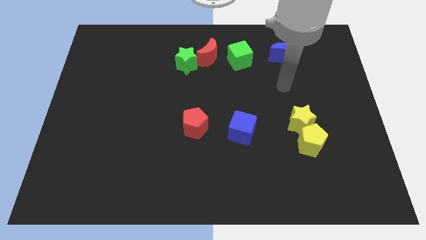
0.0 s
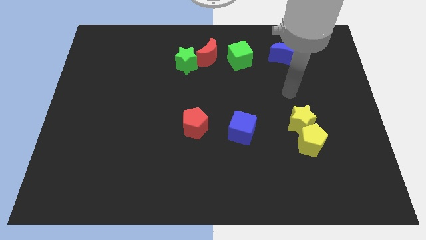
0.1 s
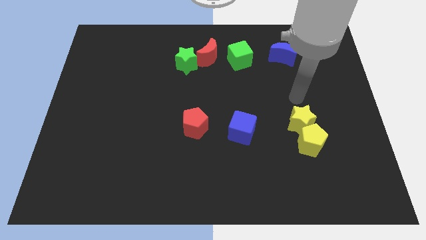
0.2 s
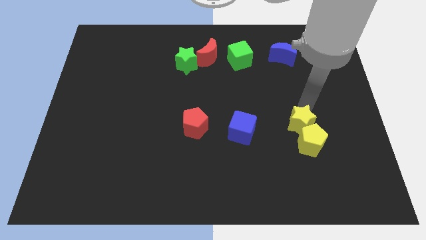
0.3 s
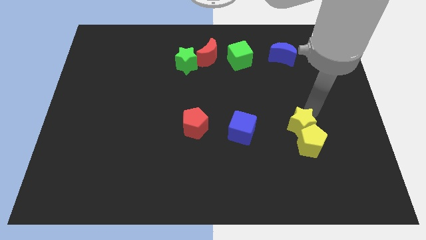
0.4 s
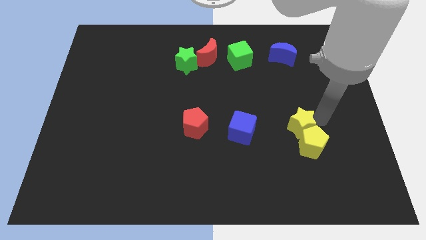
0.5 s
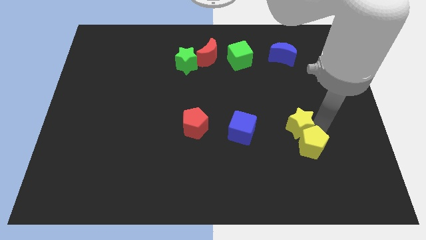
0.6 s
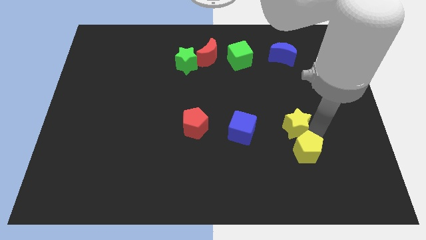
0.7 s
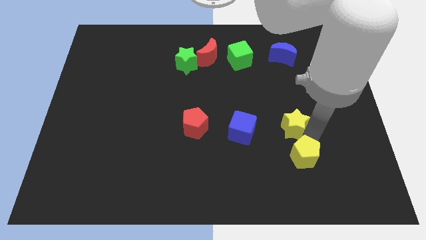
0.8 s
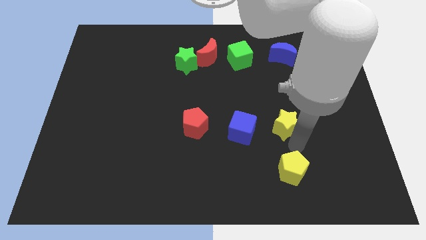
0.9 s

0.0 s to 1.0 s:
separate the yellow star from the yellow pentagon

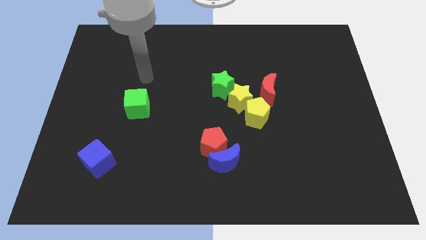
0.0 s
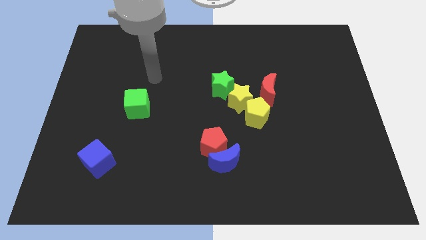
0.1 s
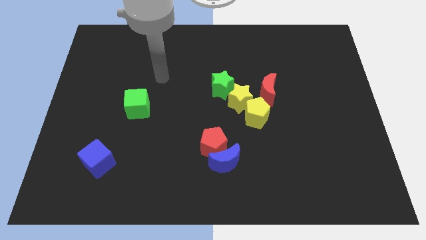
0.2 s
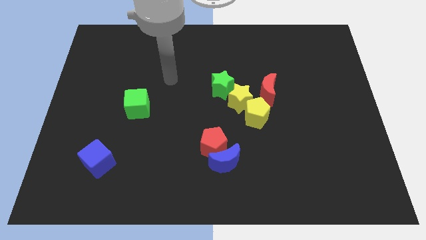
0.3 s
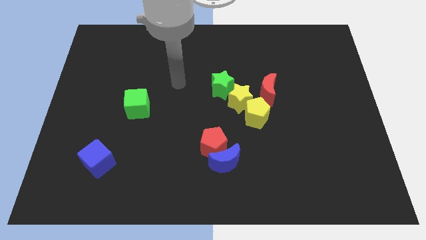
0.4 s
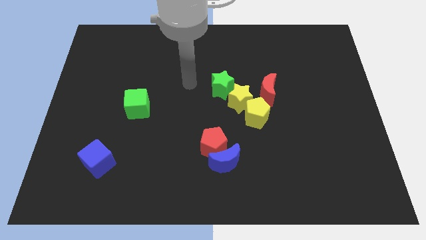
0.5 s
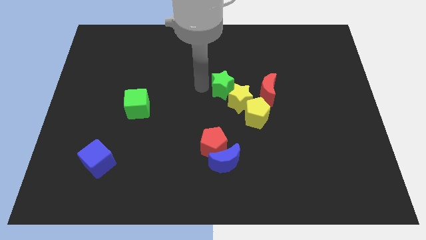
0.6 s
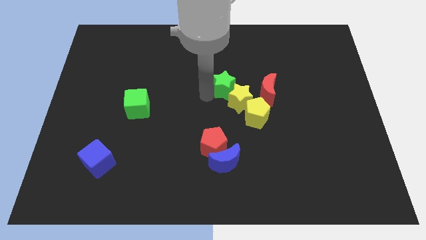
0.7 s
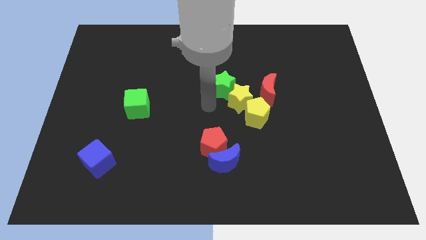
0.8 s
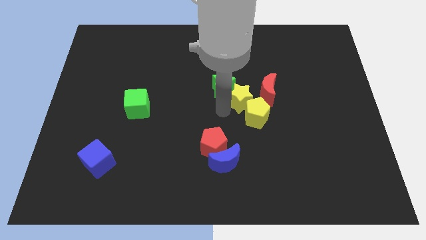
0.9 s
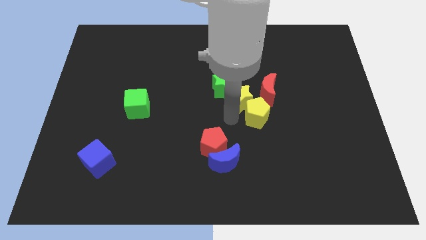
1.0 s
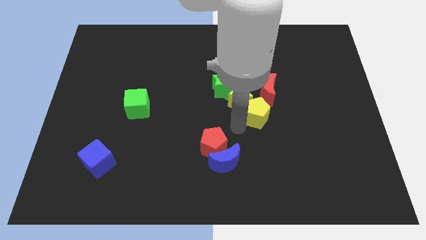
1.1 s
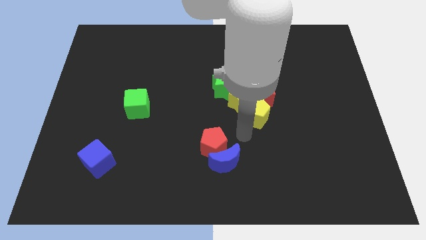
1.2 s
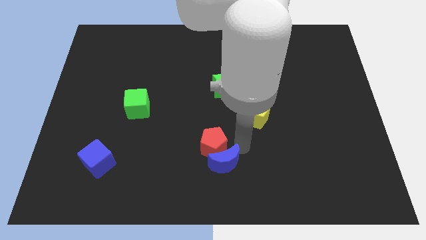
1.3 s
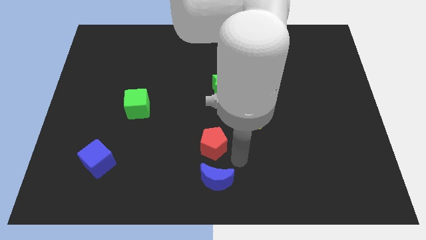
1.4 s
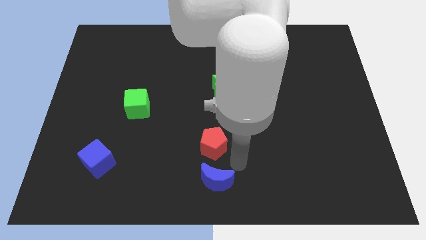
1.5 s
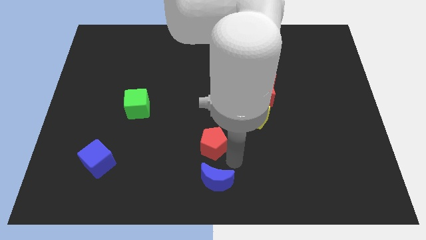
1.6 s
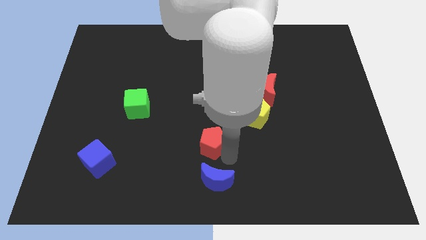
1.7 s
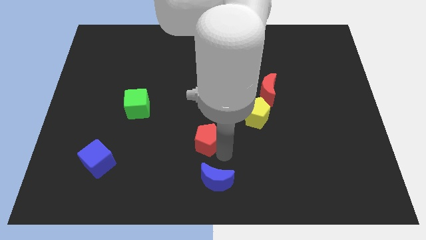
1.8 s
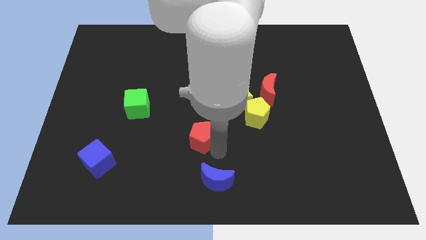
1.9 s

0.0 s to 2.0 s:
pull the red pentagon apart from the blue moon

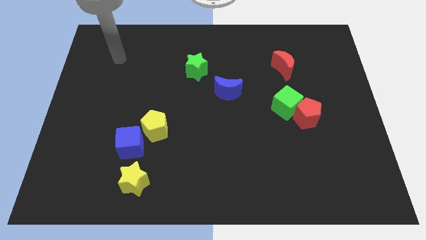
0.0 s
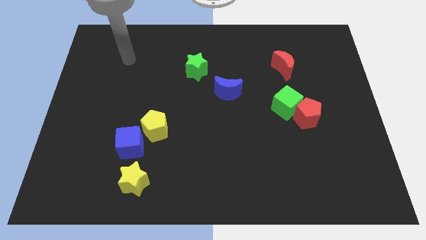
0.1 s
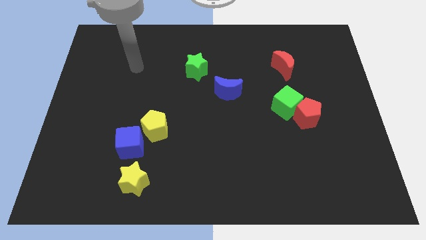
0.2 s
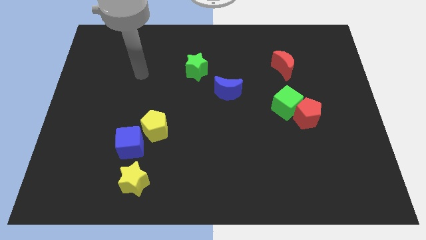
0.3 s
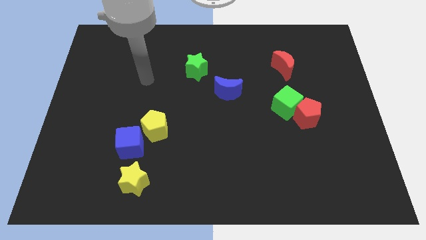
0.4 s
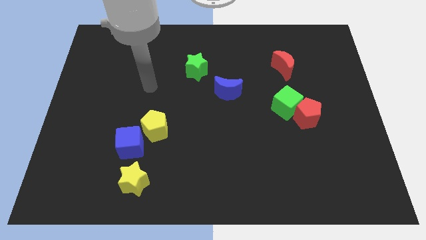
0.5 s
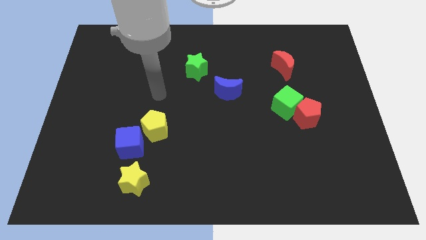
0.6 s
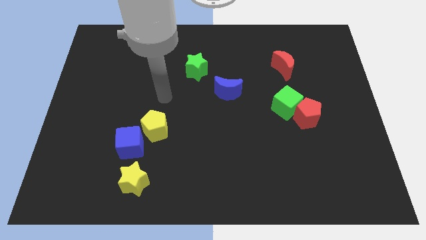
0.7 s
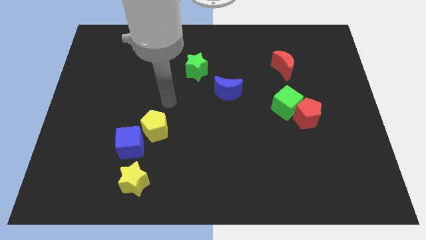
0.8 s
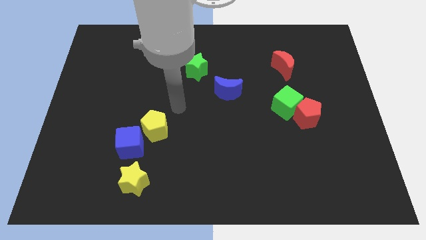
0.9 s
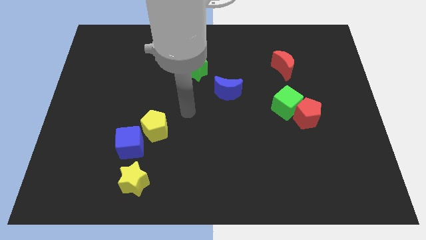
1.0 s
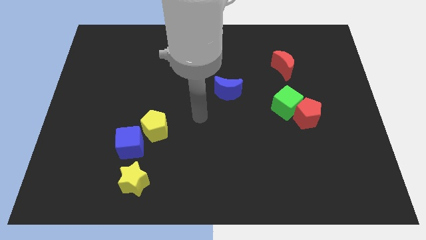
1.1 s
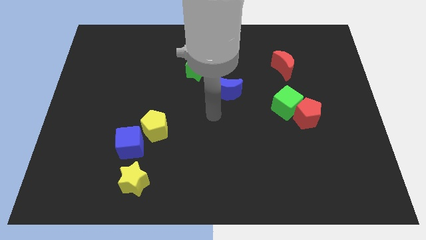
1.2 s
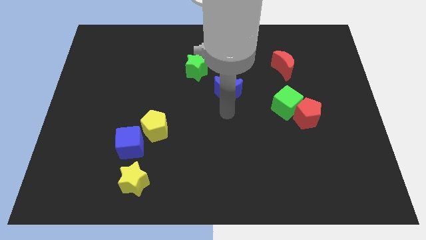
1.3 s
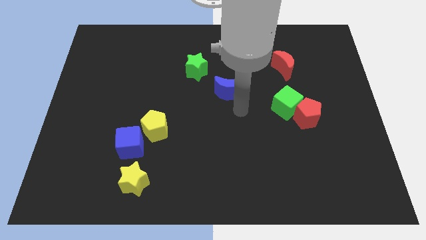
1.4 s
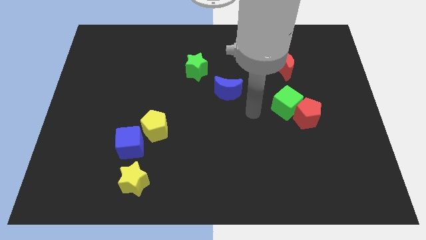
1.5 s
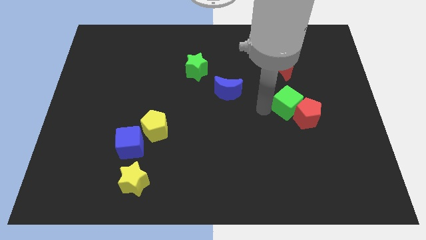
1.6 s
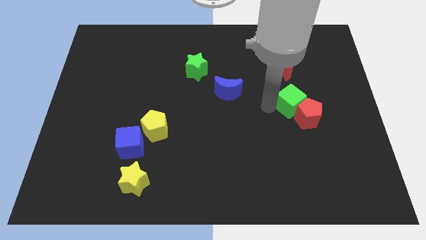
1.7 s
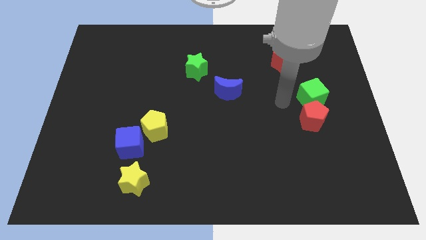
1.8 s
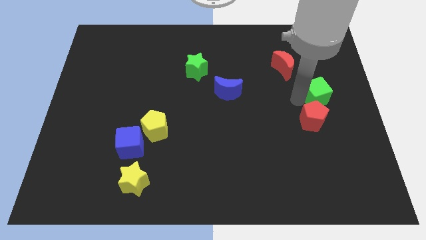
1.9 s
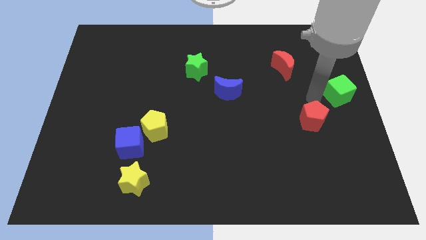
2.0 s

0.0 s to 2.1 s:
move the red pentagon away from the green cube

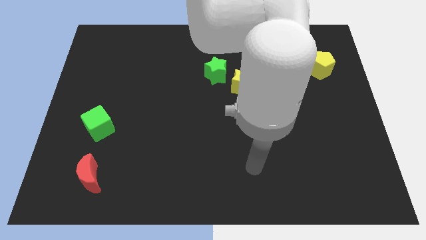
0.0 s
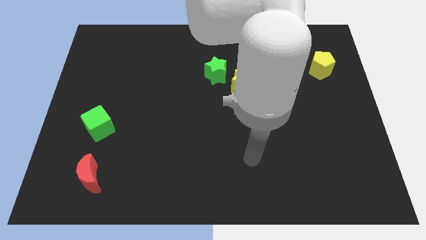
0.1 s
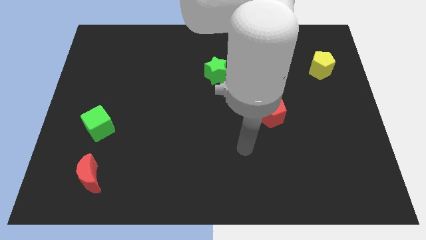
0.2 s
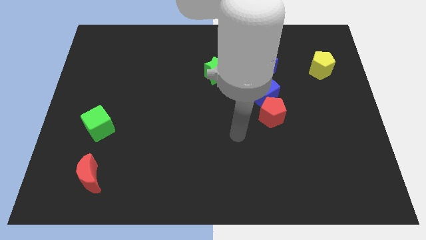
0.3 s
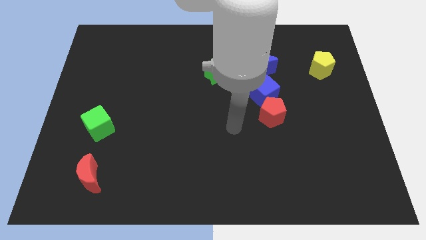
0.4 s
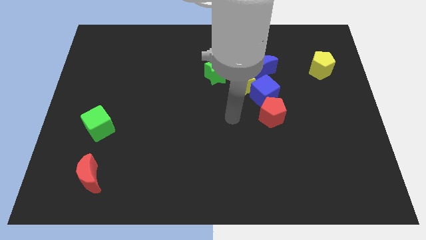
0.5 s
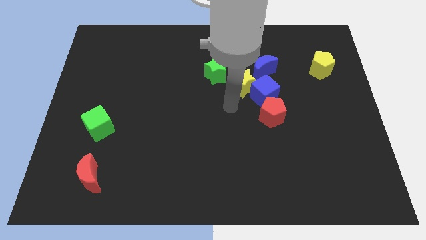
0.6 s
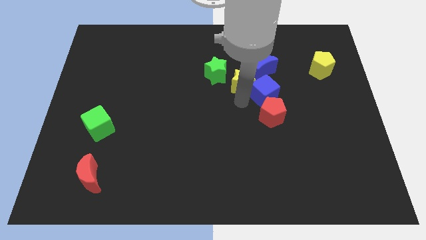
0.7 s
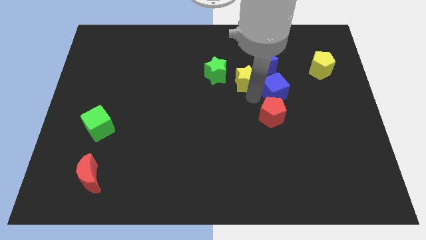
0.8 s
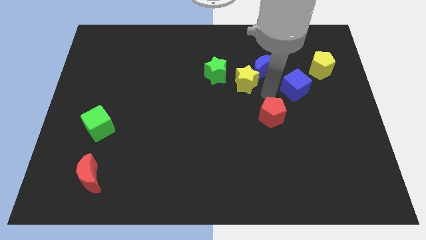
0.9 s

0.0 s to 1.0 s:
separate the red pentagon from the blue cube

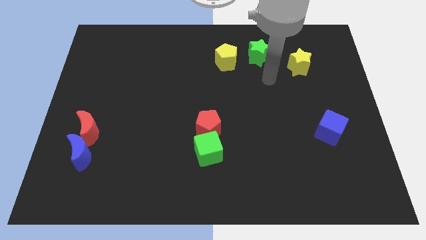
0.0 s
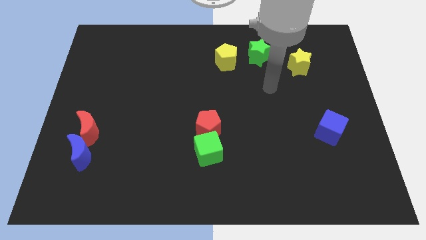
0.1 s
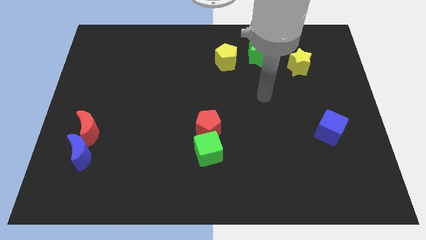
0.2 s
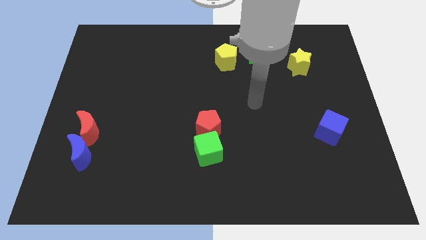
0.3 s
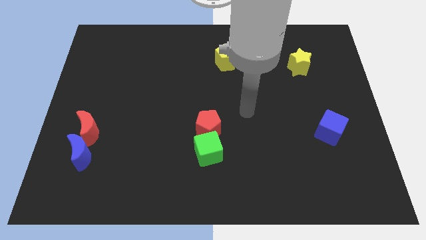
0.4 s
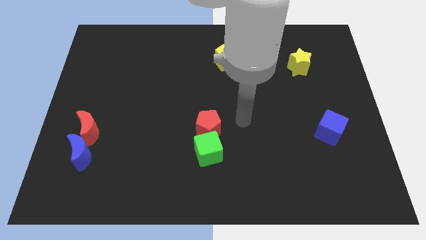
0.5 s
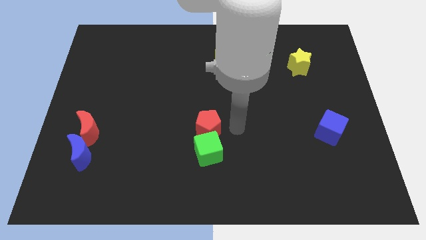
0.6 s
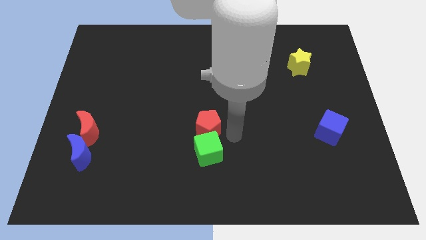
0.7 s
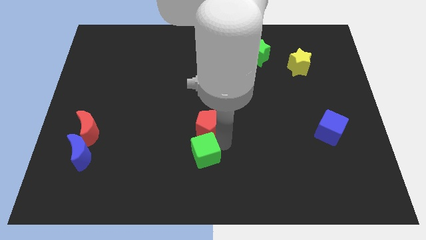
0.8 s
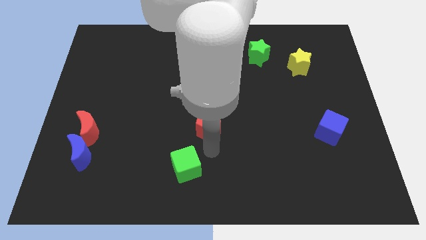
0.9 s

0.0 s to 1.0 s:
separate the red pentagon from the green cube

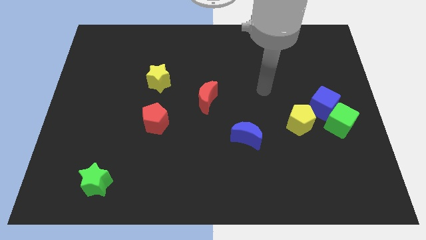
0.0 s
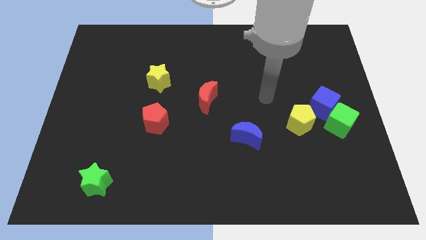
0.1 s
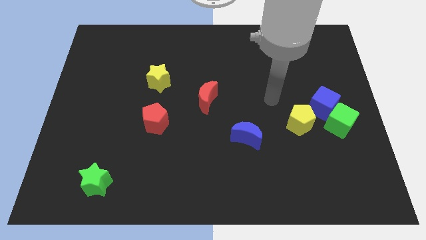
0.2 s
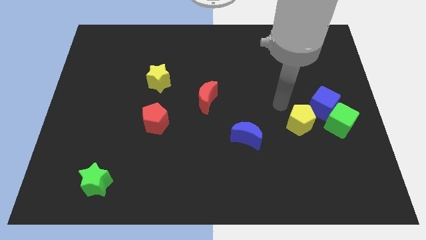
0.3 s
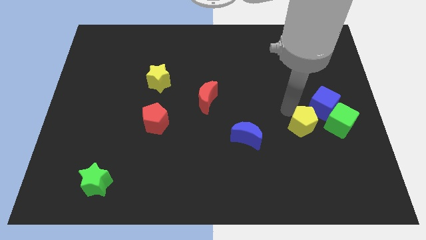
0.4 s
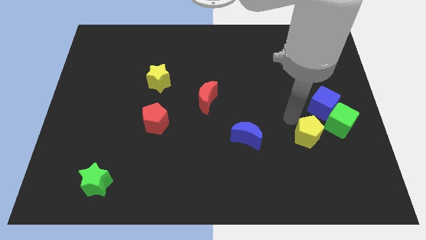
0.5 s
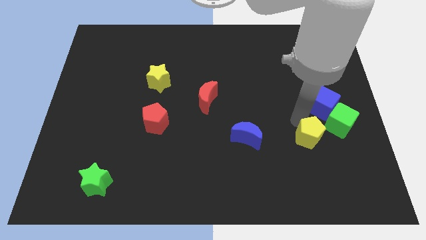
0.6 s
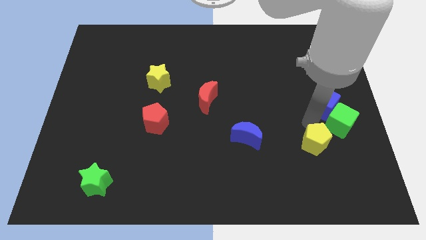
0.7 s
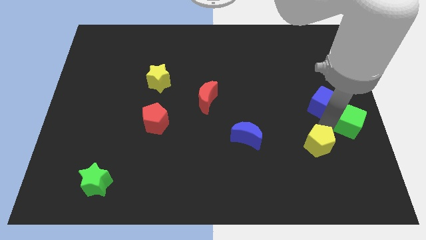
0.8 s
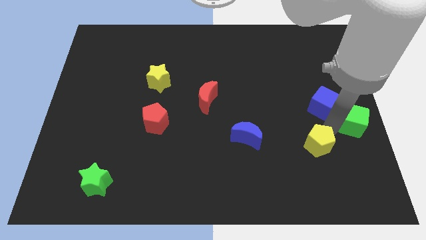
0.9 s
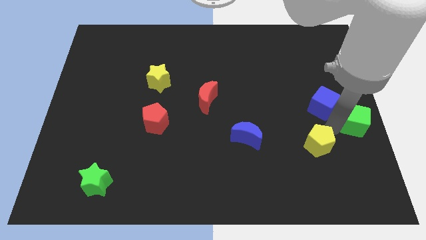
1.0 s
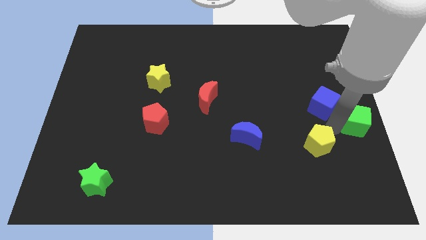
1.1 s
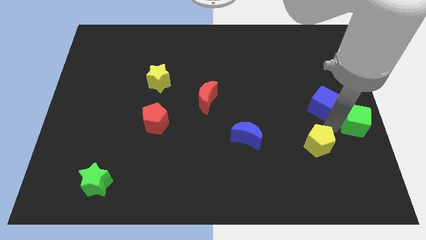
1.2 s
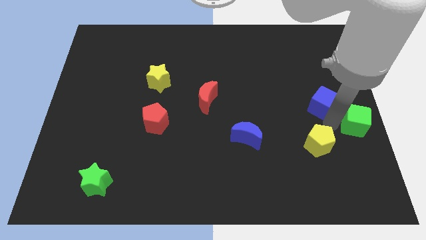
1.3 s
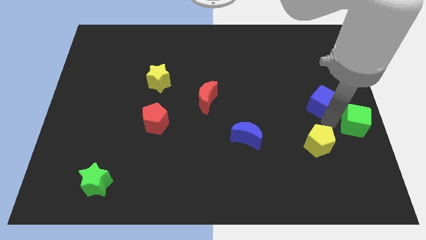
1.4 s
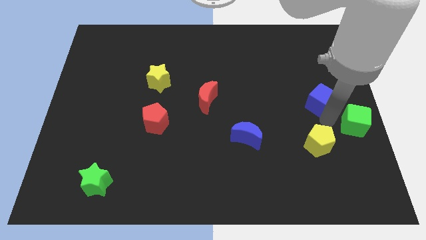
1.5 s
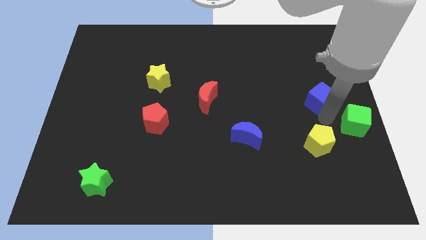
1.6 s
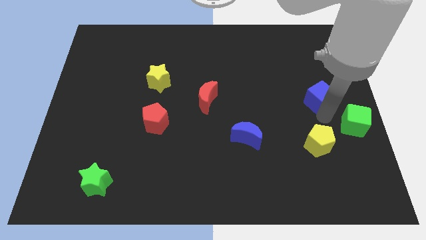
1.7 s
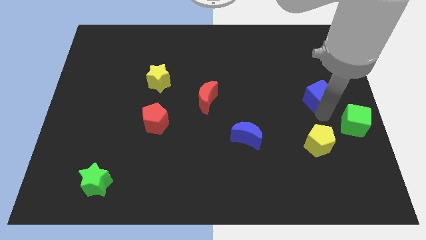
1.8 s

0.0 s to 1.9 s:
pull the blue cube apart from the green cube and yellow pentagon

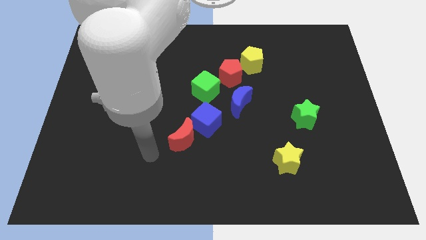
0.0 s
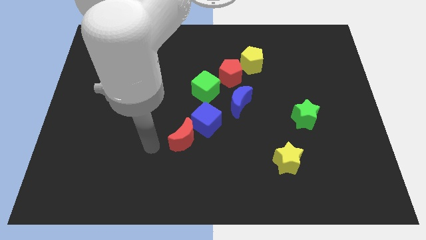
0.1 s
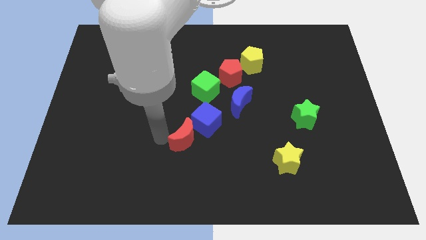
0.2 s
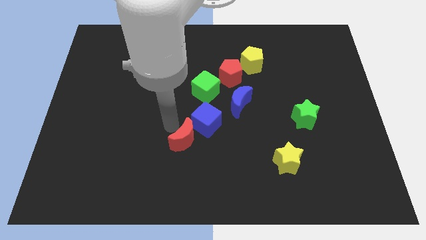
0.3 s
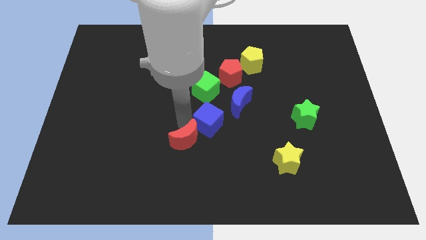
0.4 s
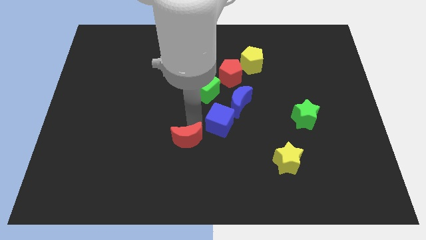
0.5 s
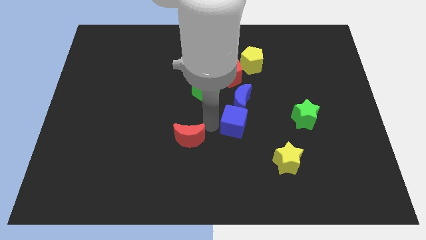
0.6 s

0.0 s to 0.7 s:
pull the red moon apart from the blue cube
